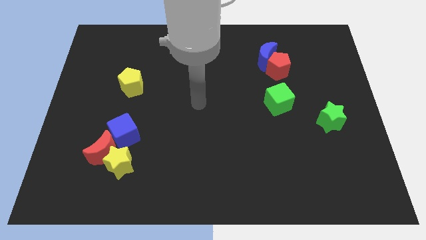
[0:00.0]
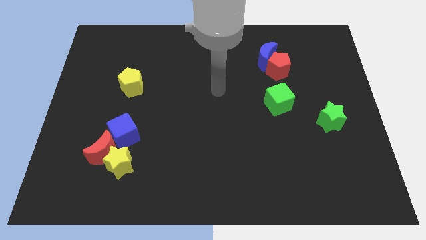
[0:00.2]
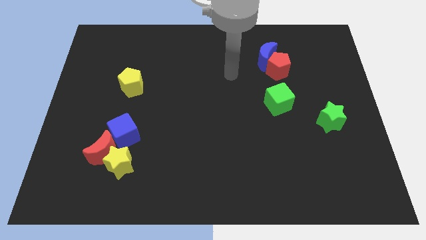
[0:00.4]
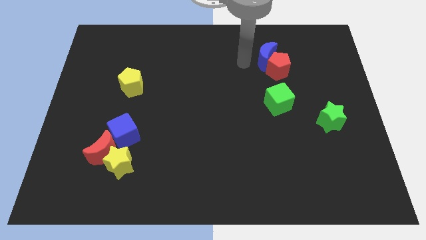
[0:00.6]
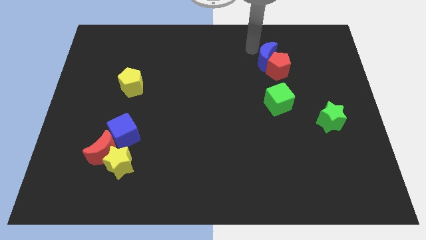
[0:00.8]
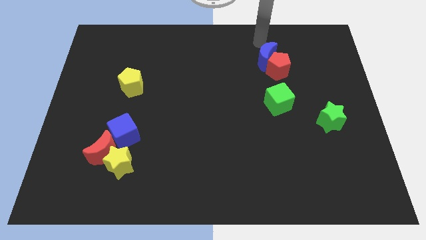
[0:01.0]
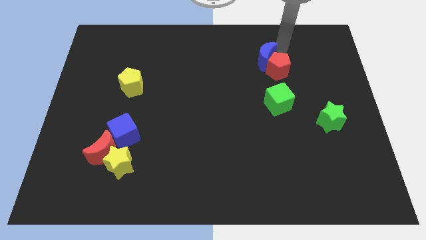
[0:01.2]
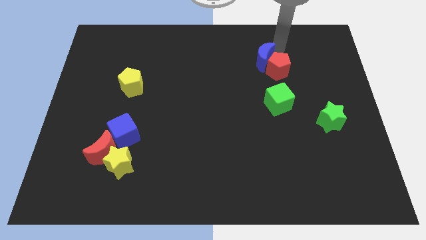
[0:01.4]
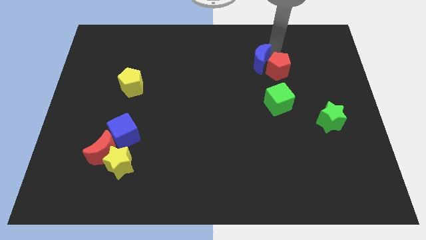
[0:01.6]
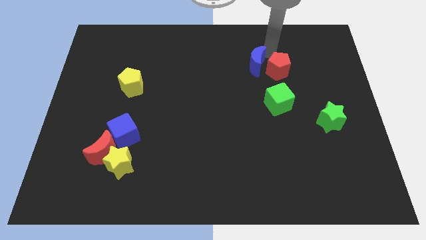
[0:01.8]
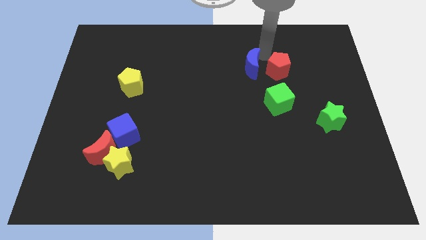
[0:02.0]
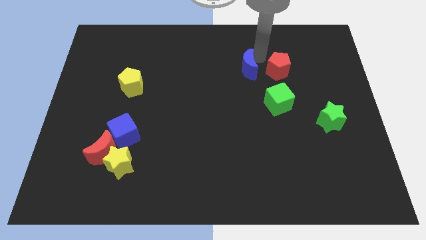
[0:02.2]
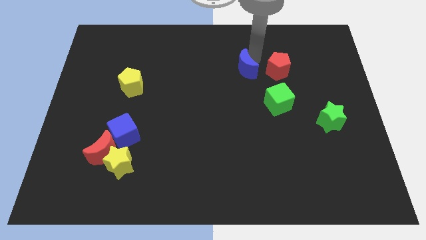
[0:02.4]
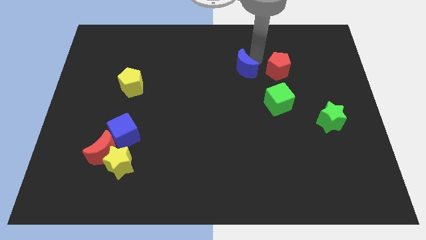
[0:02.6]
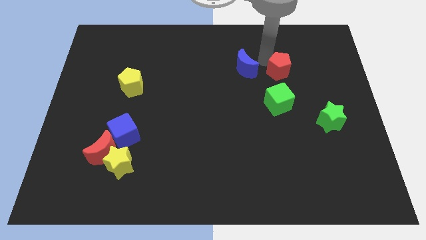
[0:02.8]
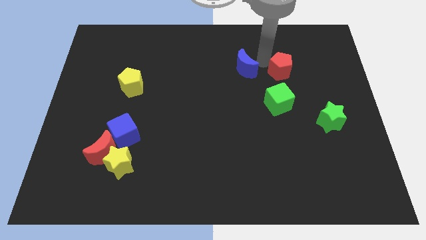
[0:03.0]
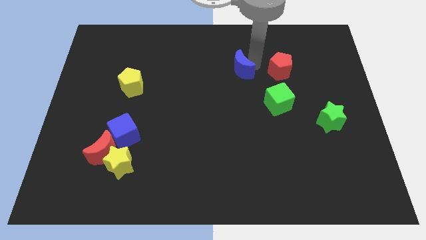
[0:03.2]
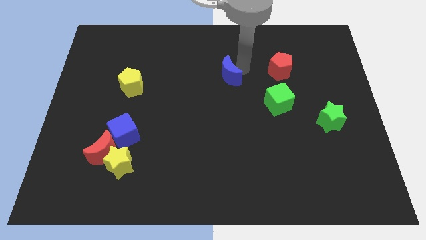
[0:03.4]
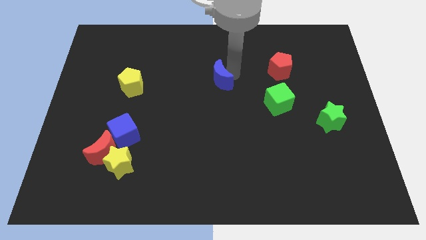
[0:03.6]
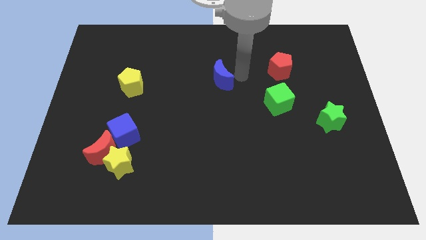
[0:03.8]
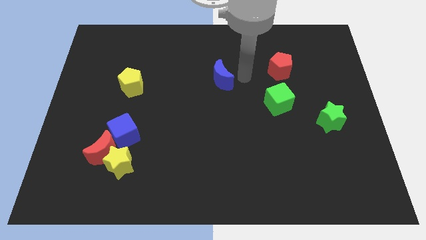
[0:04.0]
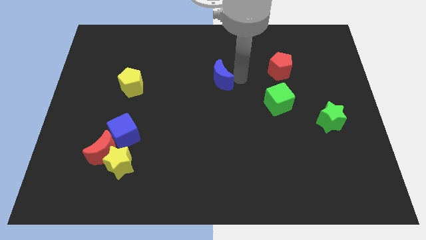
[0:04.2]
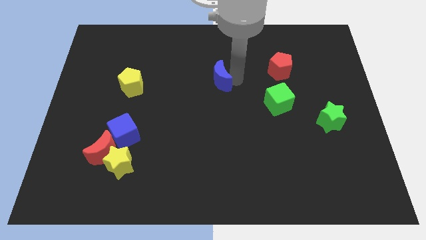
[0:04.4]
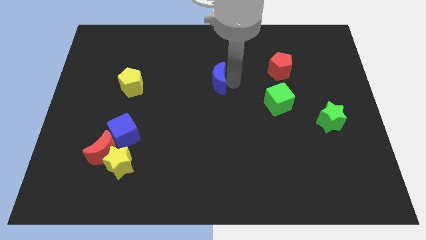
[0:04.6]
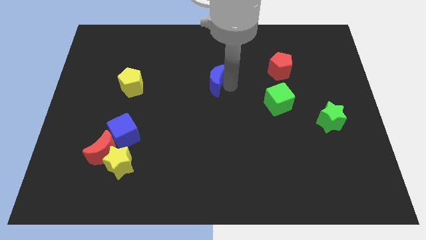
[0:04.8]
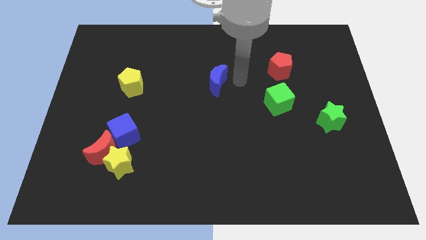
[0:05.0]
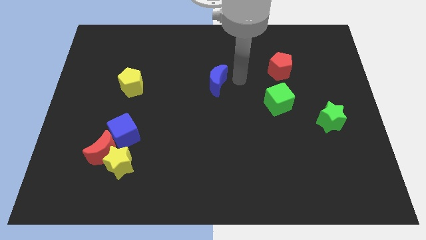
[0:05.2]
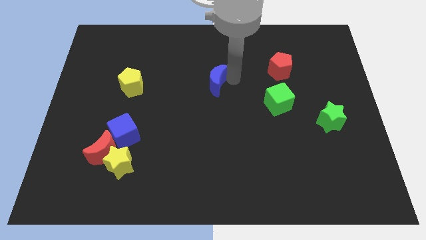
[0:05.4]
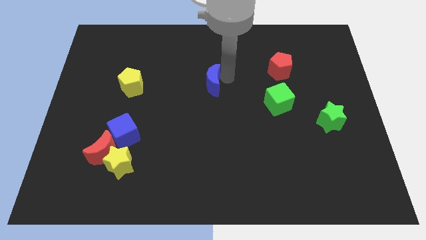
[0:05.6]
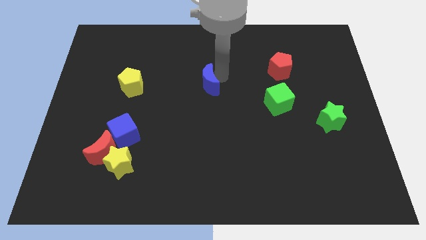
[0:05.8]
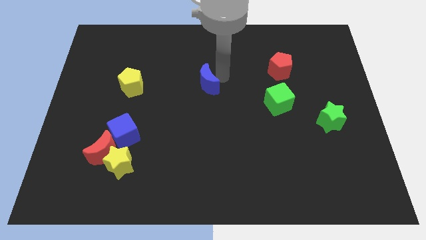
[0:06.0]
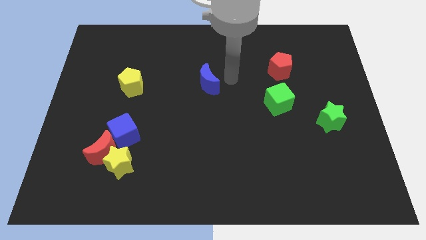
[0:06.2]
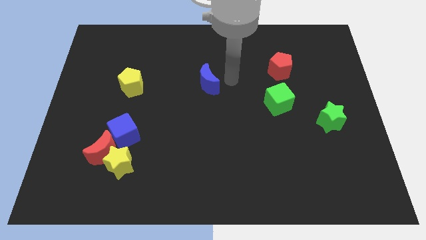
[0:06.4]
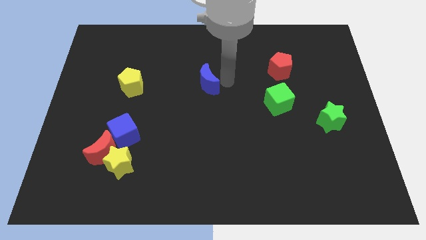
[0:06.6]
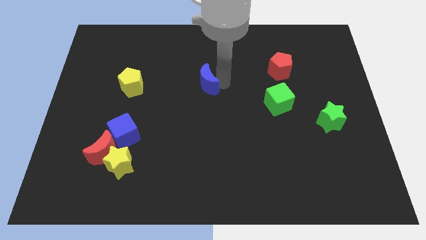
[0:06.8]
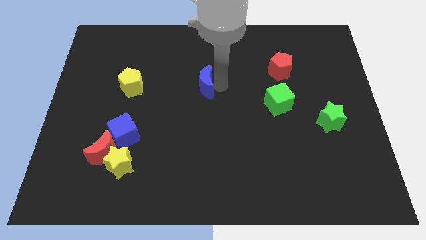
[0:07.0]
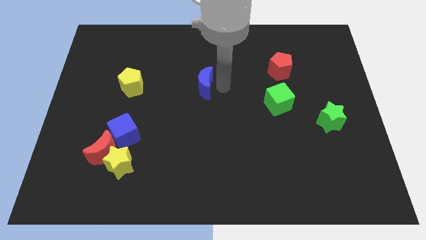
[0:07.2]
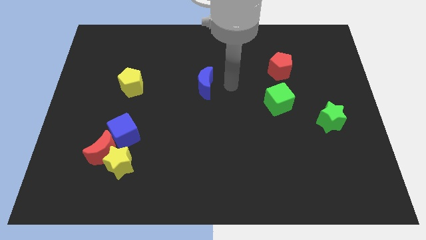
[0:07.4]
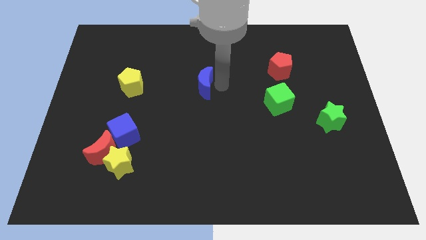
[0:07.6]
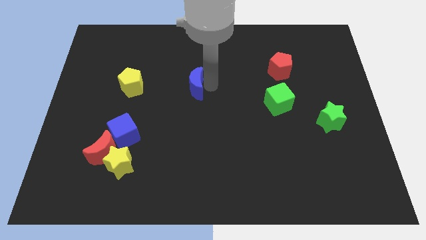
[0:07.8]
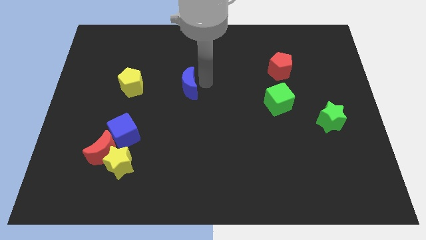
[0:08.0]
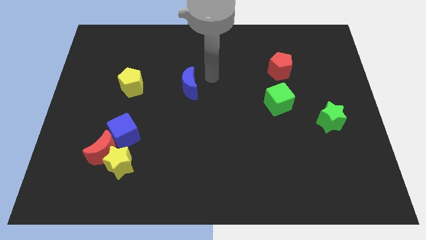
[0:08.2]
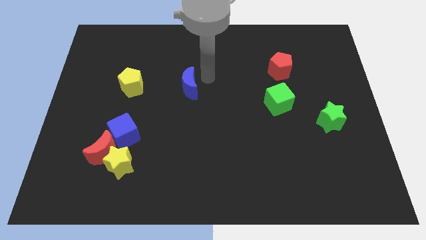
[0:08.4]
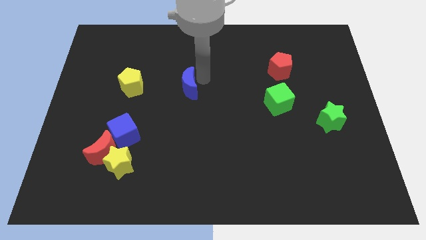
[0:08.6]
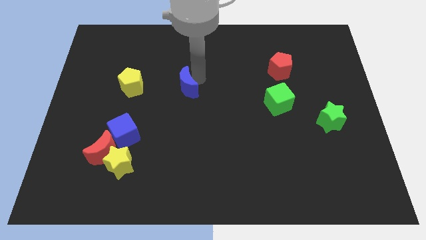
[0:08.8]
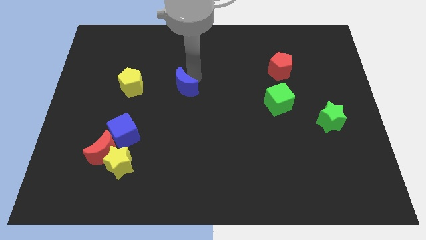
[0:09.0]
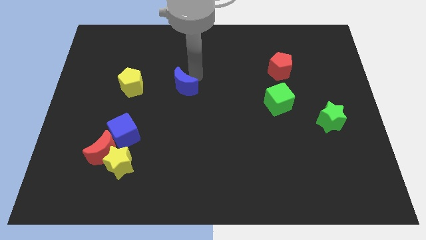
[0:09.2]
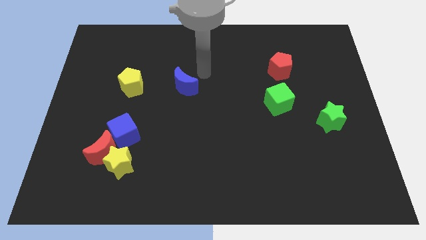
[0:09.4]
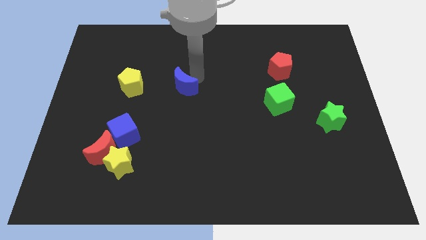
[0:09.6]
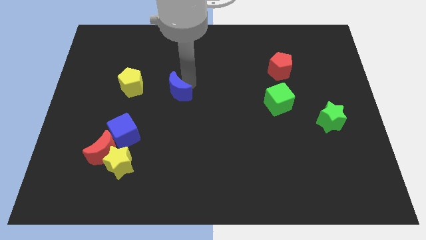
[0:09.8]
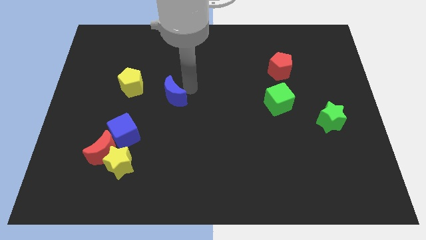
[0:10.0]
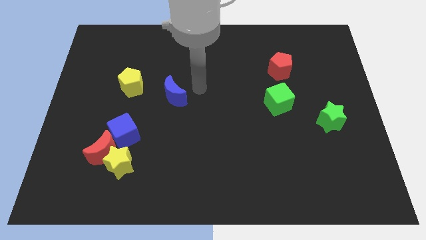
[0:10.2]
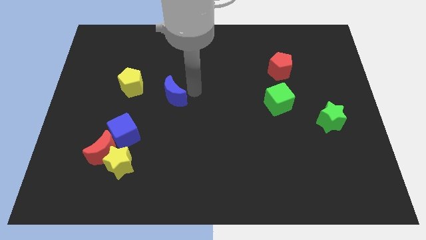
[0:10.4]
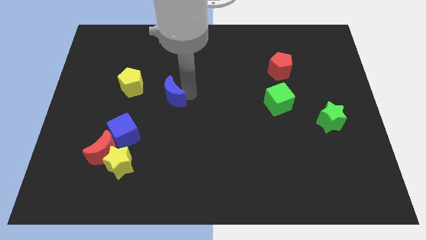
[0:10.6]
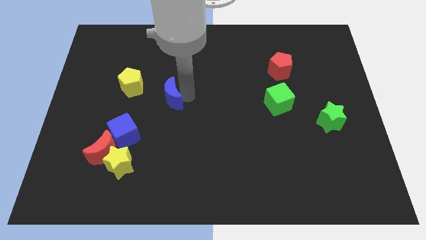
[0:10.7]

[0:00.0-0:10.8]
push the blue moon diagonally down and to the right of the yellow pentagon

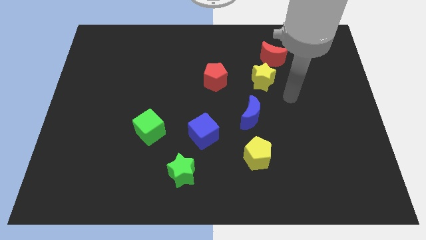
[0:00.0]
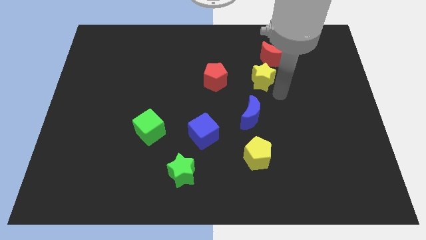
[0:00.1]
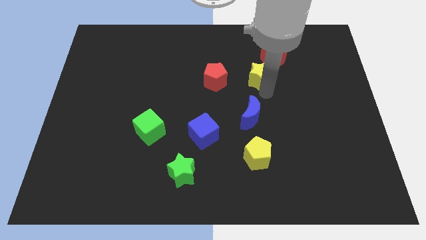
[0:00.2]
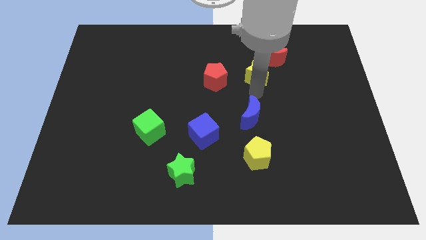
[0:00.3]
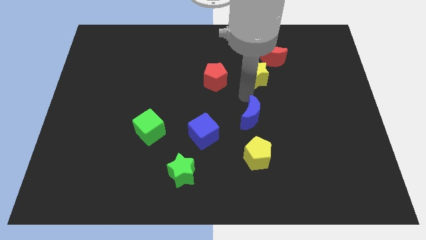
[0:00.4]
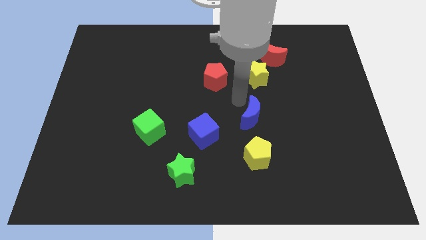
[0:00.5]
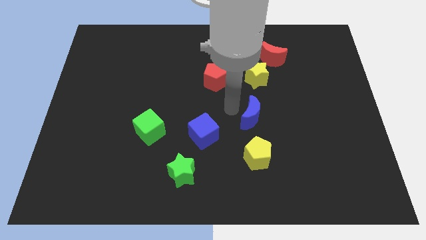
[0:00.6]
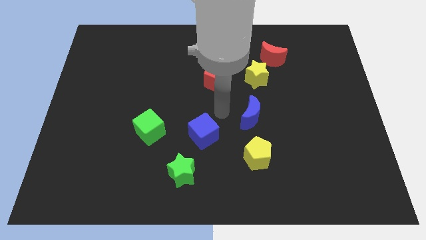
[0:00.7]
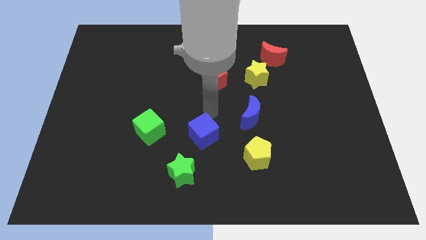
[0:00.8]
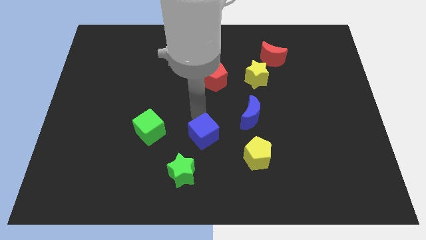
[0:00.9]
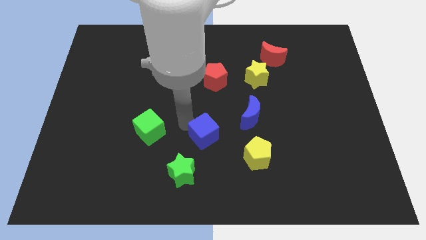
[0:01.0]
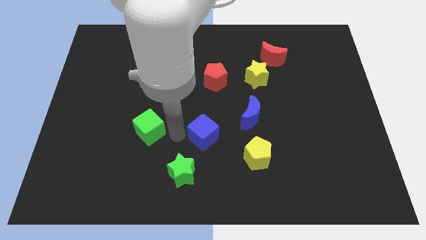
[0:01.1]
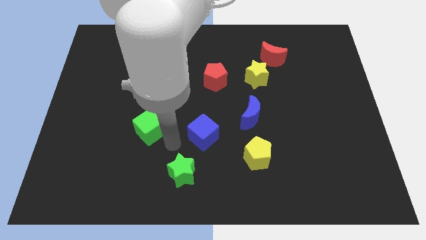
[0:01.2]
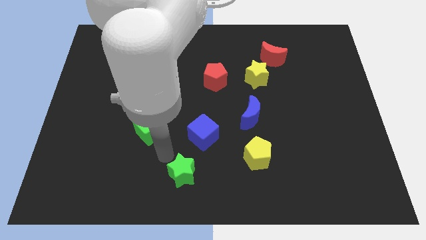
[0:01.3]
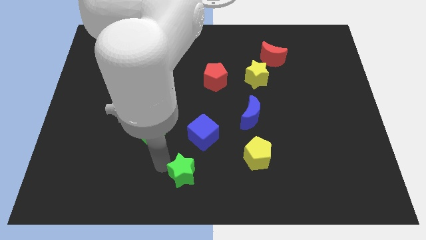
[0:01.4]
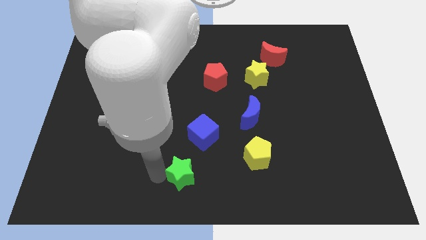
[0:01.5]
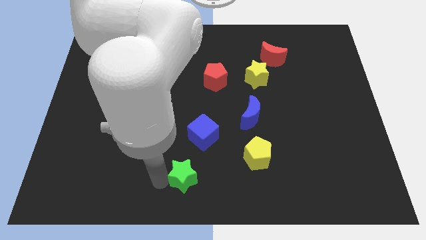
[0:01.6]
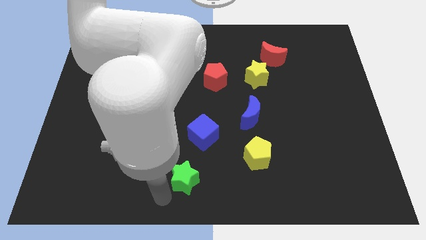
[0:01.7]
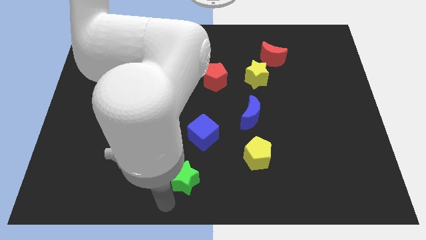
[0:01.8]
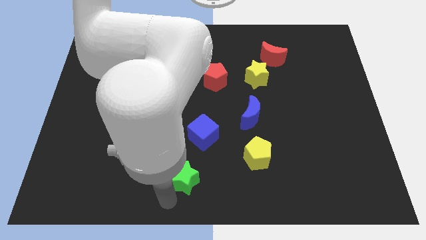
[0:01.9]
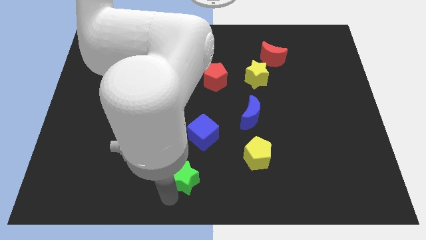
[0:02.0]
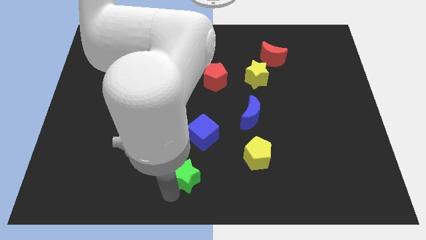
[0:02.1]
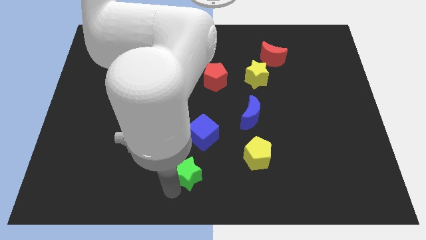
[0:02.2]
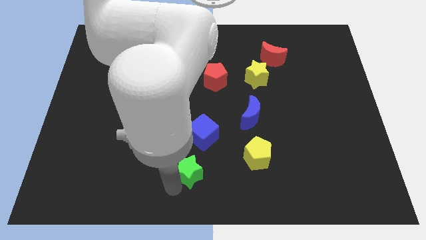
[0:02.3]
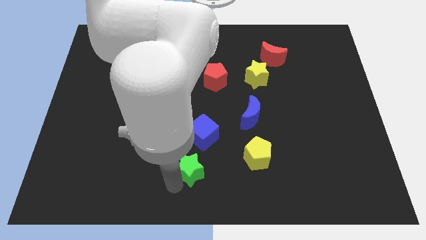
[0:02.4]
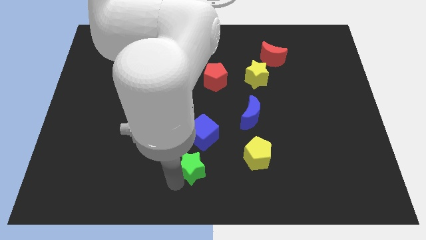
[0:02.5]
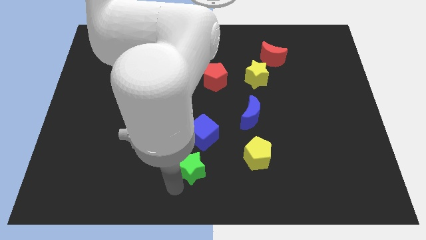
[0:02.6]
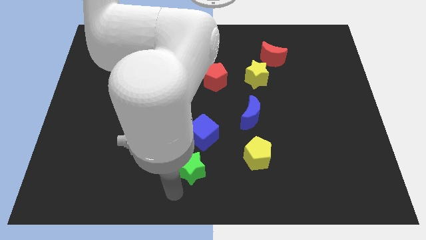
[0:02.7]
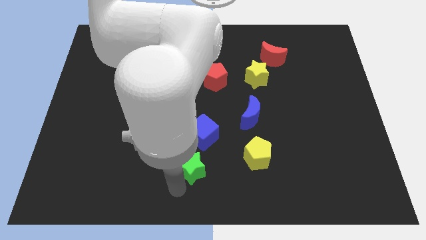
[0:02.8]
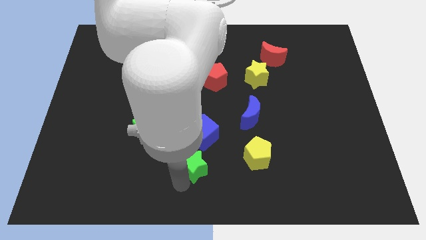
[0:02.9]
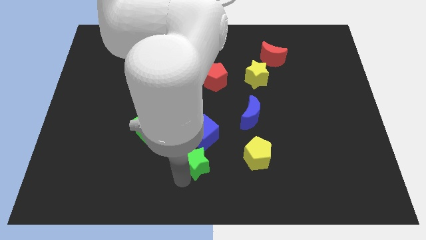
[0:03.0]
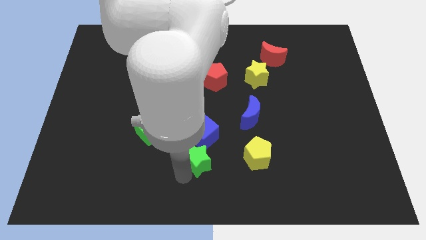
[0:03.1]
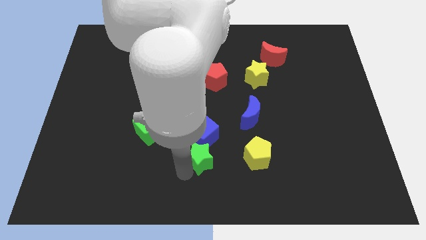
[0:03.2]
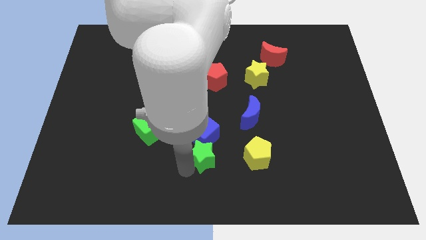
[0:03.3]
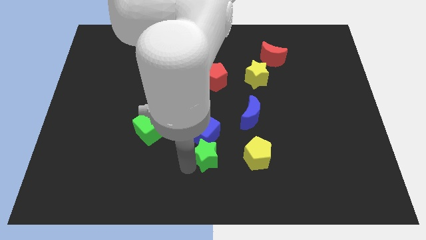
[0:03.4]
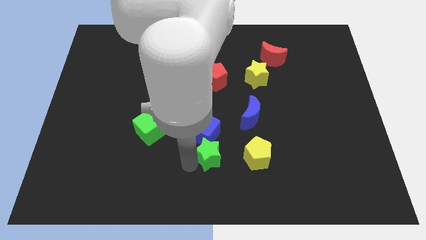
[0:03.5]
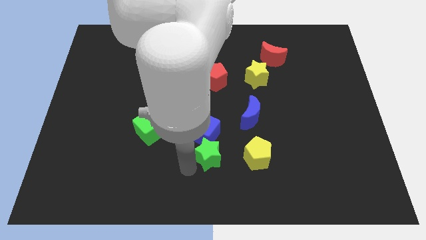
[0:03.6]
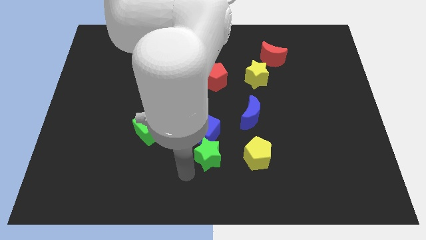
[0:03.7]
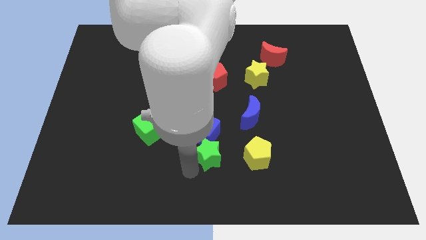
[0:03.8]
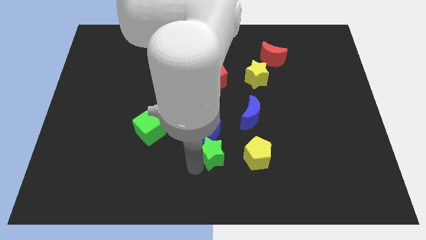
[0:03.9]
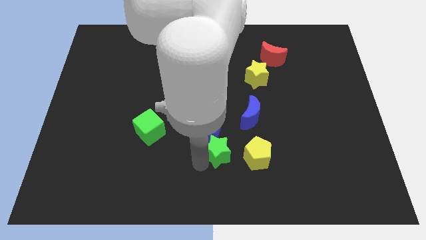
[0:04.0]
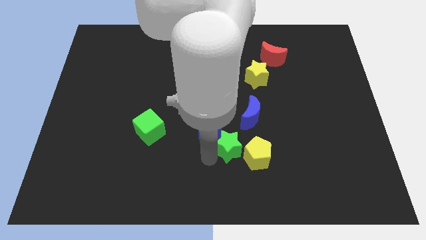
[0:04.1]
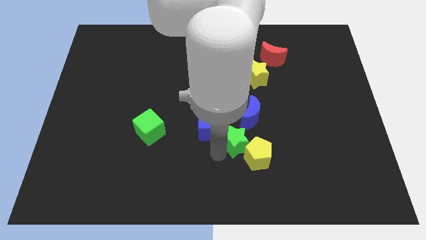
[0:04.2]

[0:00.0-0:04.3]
push the green star just right of the blue cube
